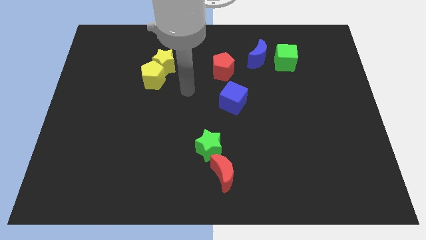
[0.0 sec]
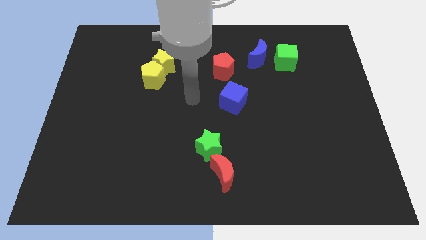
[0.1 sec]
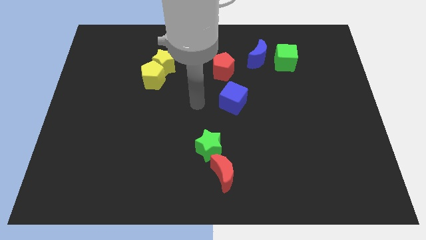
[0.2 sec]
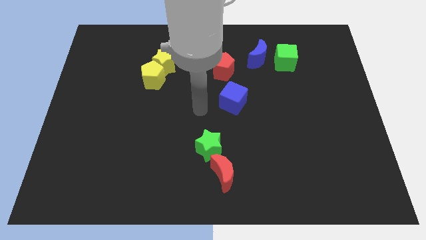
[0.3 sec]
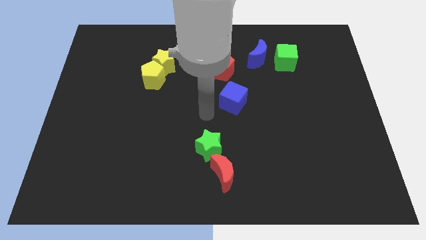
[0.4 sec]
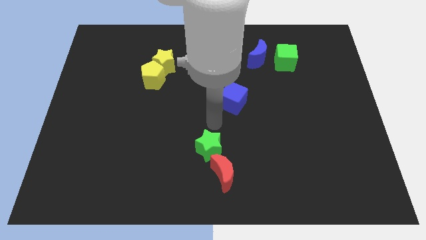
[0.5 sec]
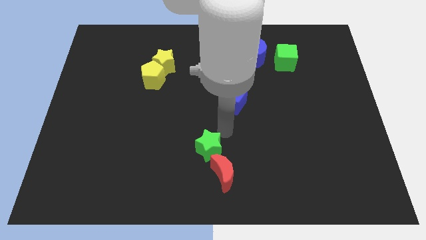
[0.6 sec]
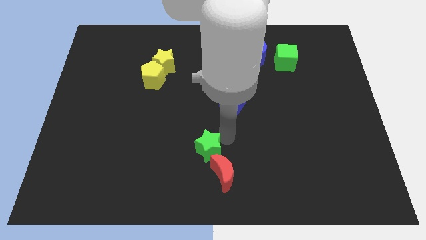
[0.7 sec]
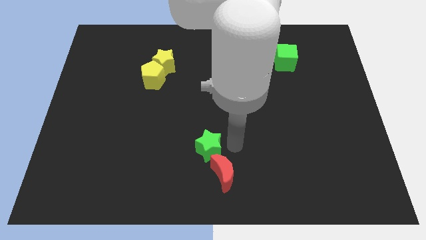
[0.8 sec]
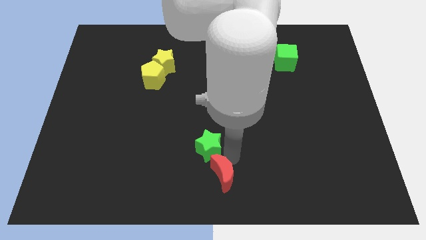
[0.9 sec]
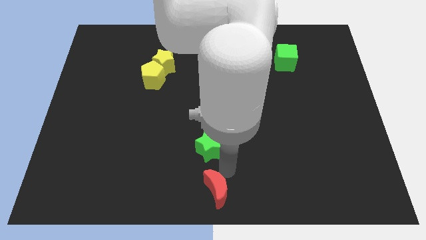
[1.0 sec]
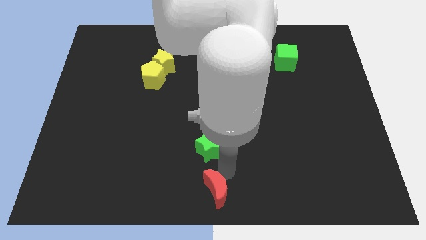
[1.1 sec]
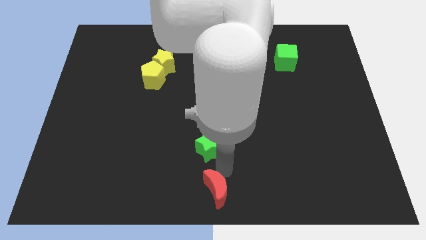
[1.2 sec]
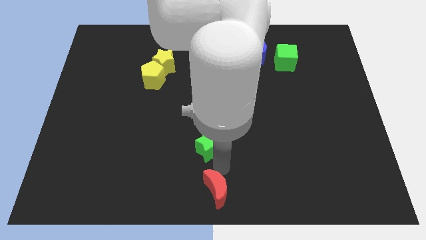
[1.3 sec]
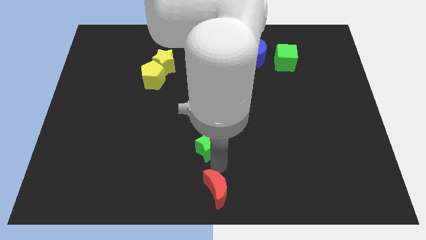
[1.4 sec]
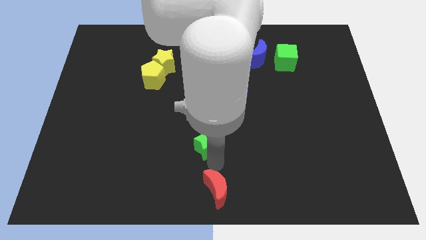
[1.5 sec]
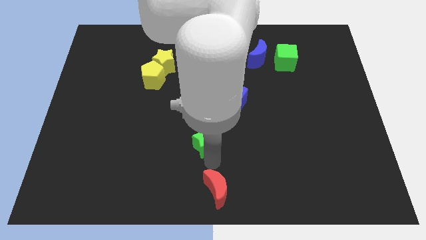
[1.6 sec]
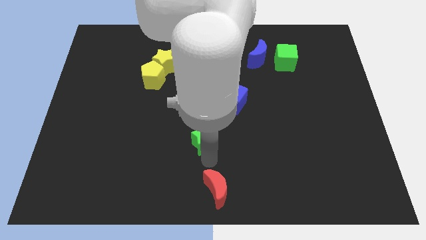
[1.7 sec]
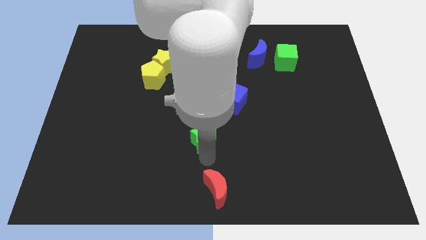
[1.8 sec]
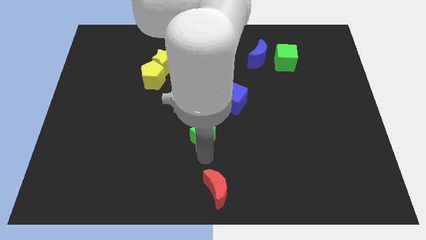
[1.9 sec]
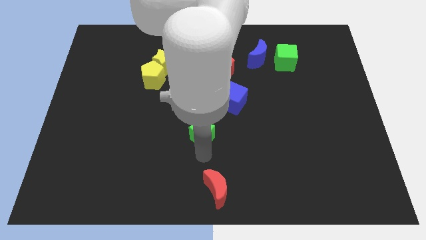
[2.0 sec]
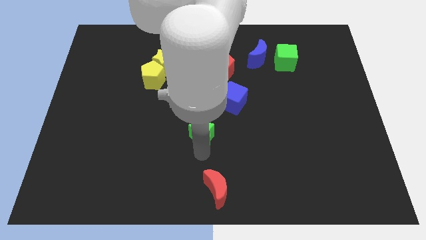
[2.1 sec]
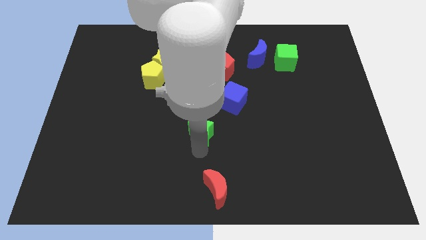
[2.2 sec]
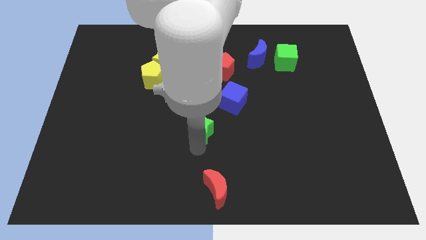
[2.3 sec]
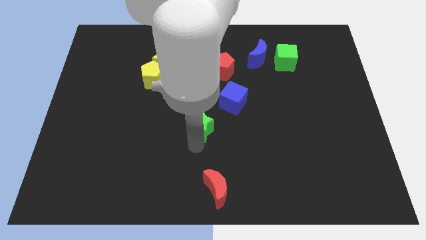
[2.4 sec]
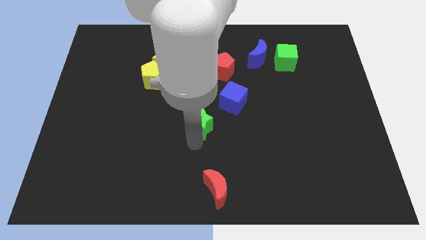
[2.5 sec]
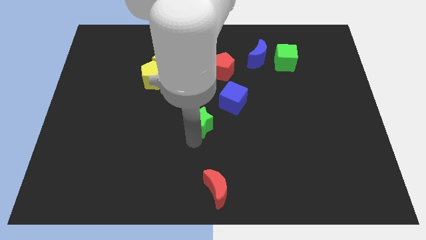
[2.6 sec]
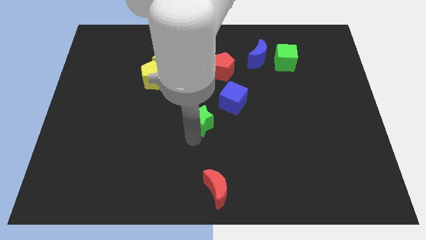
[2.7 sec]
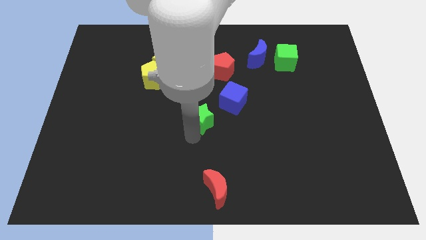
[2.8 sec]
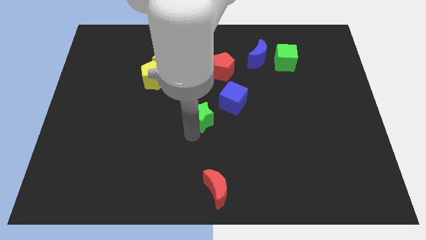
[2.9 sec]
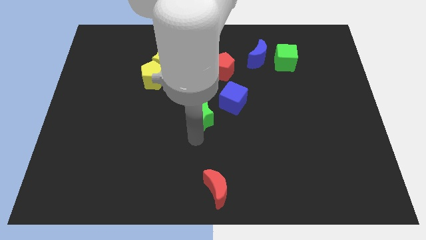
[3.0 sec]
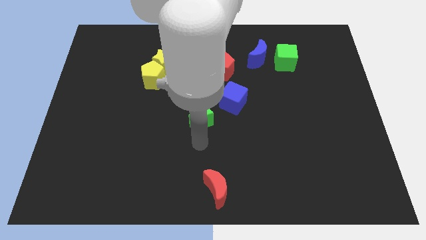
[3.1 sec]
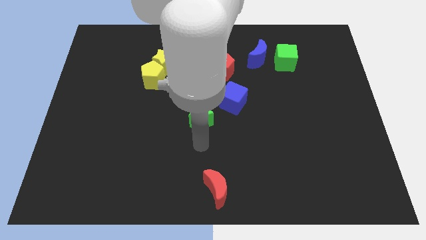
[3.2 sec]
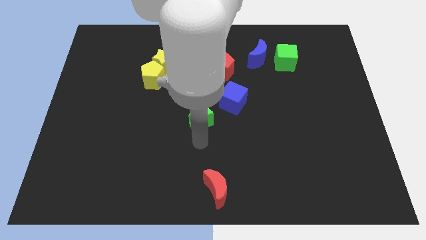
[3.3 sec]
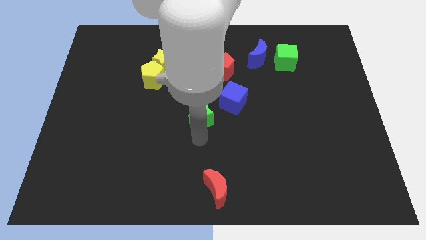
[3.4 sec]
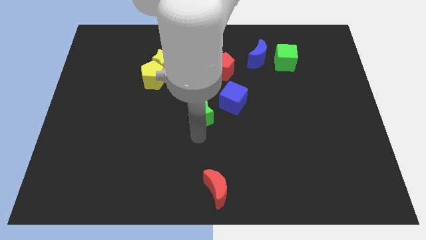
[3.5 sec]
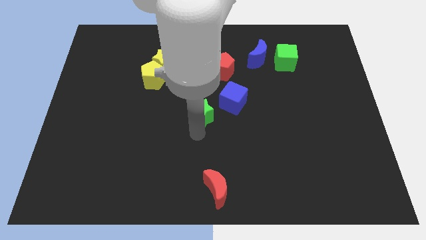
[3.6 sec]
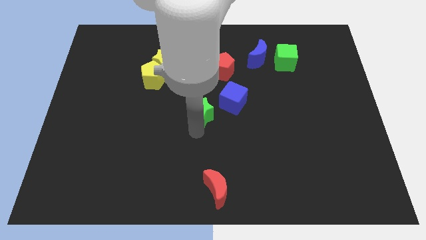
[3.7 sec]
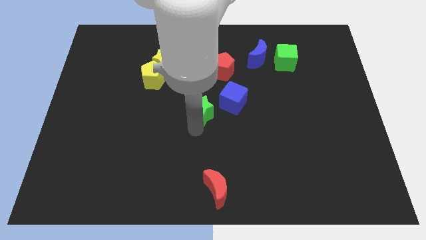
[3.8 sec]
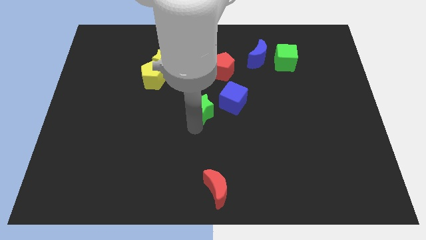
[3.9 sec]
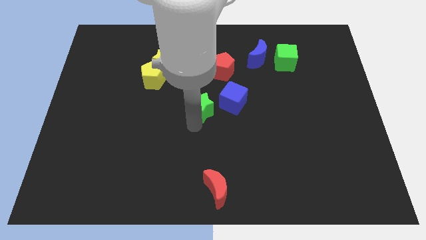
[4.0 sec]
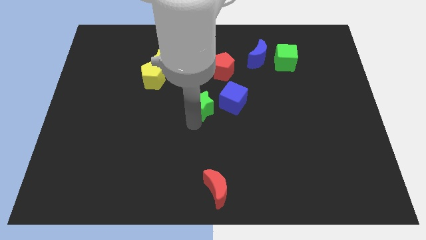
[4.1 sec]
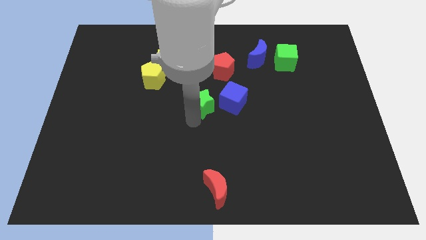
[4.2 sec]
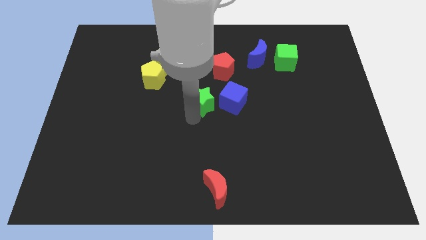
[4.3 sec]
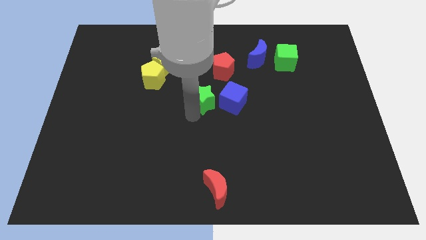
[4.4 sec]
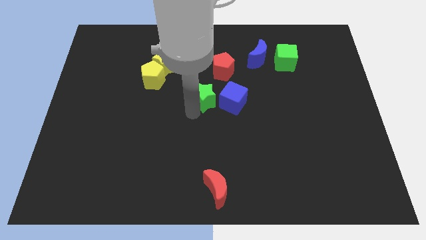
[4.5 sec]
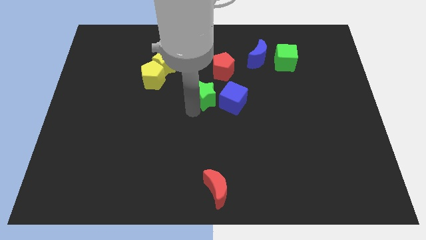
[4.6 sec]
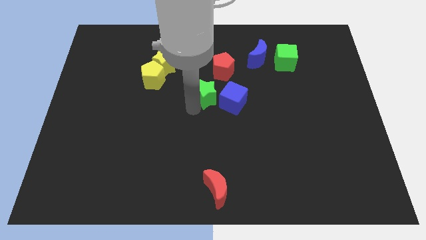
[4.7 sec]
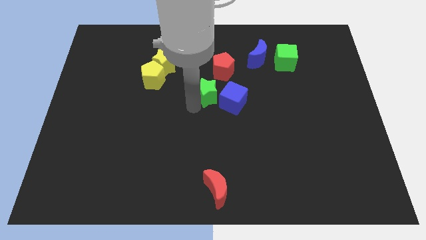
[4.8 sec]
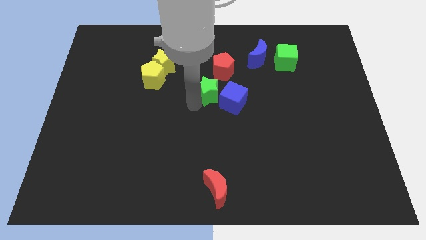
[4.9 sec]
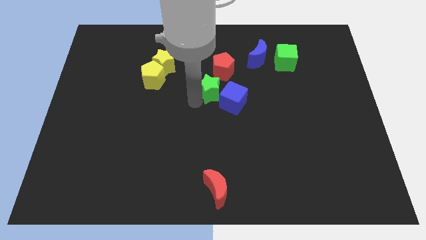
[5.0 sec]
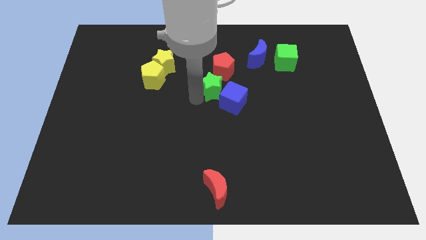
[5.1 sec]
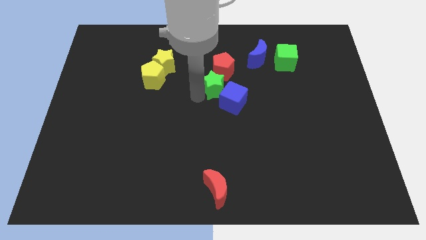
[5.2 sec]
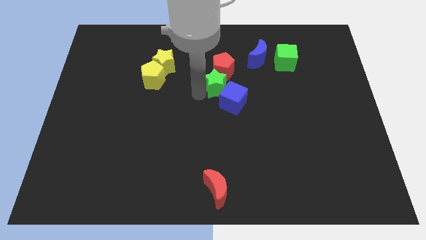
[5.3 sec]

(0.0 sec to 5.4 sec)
push the green star next to the red pentagon
